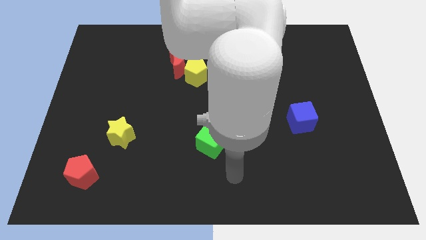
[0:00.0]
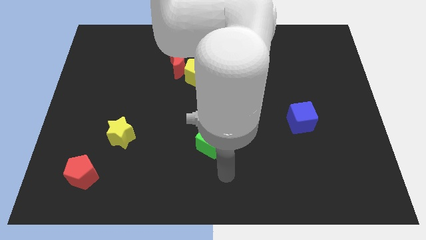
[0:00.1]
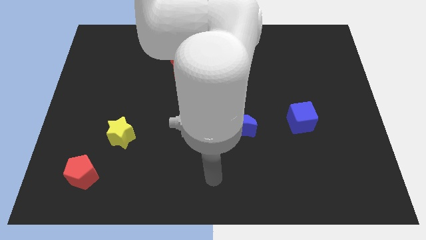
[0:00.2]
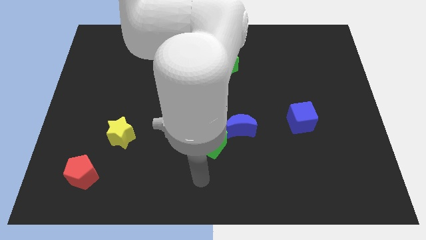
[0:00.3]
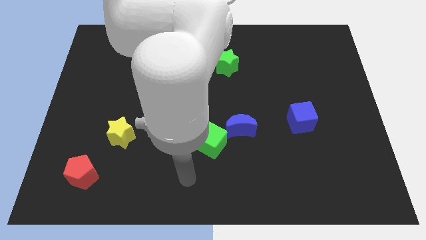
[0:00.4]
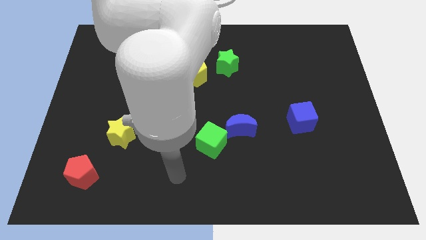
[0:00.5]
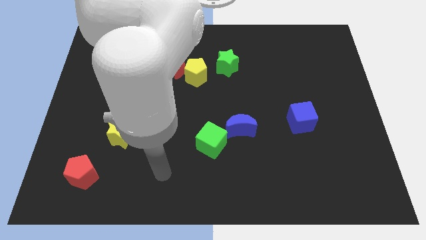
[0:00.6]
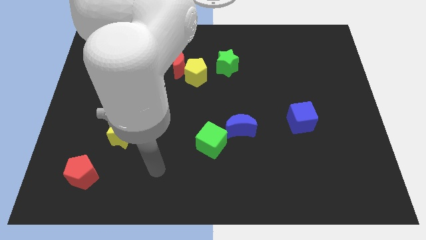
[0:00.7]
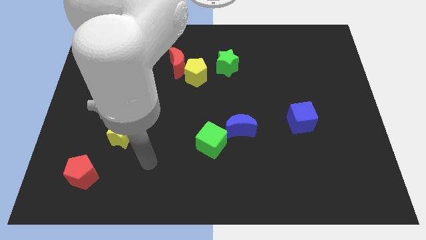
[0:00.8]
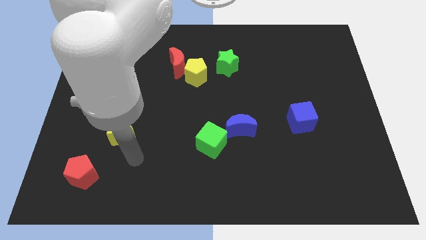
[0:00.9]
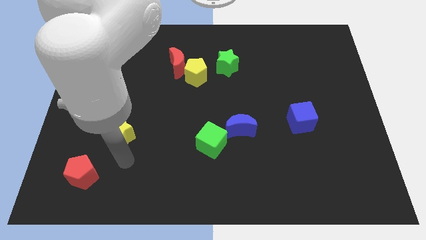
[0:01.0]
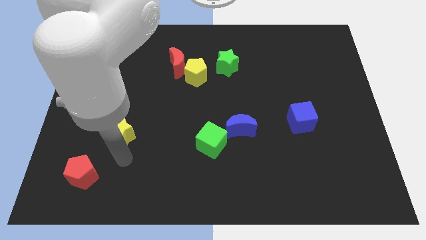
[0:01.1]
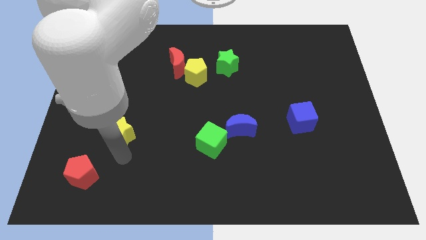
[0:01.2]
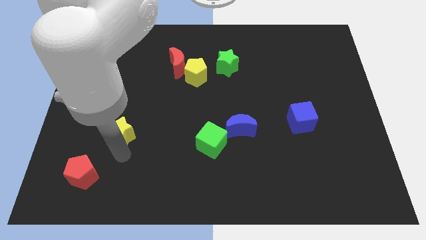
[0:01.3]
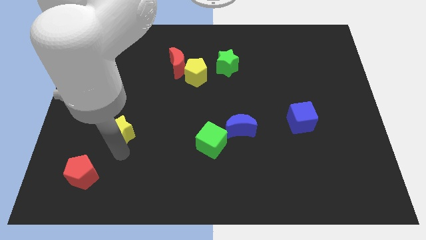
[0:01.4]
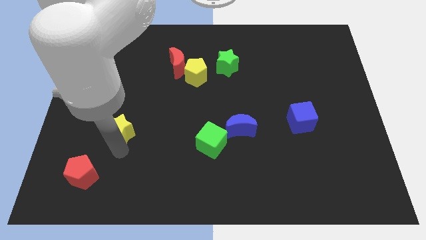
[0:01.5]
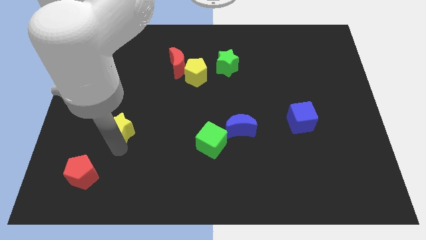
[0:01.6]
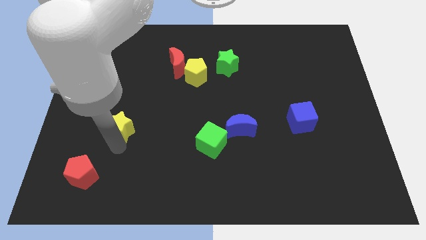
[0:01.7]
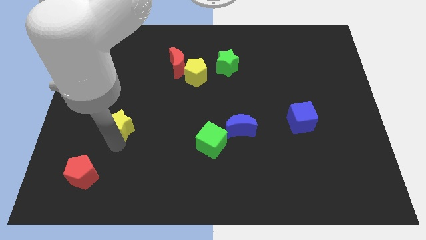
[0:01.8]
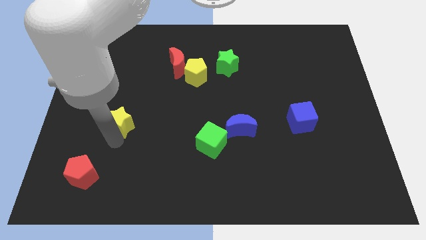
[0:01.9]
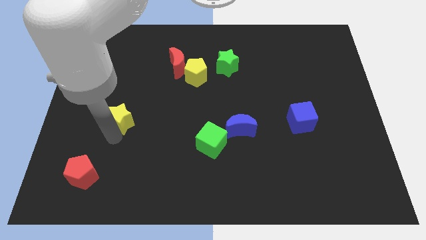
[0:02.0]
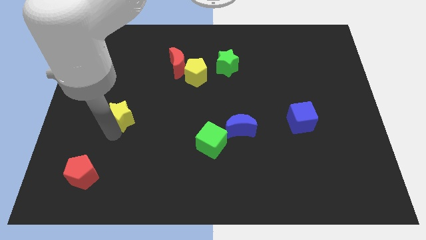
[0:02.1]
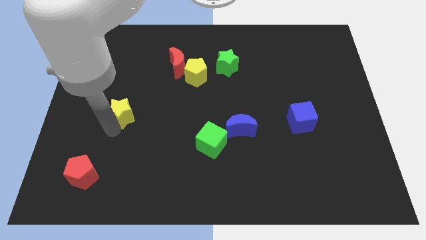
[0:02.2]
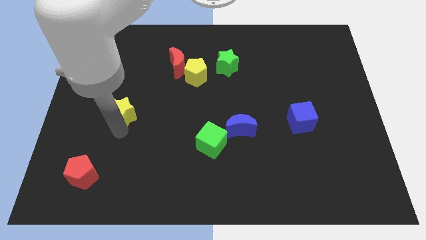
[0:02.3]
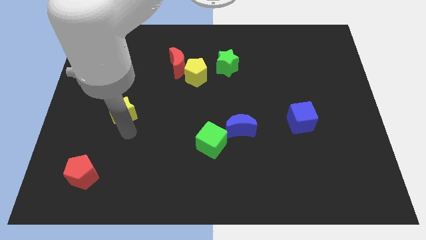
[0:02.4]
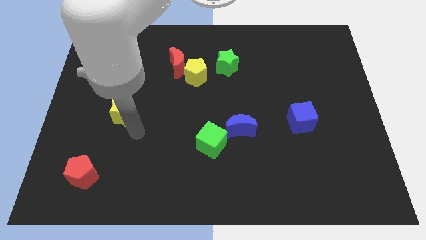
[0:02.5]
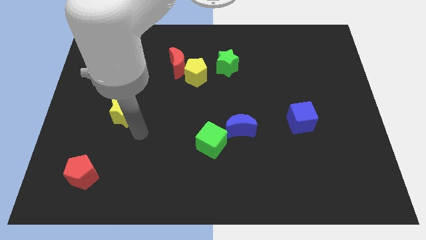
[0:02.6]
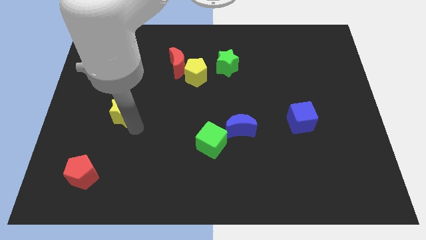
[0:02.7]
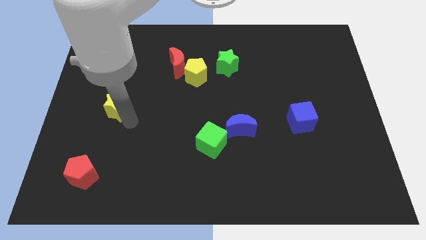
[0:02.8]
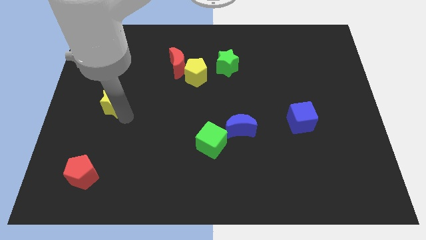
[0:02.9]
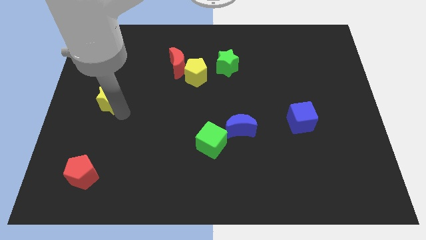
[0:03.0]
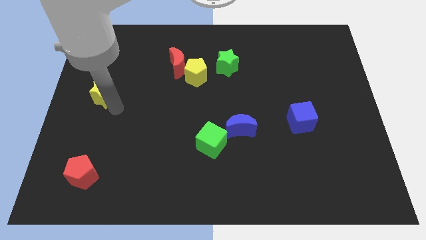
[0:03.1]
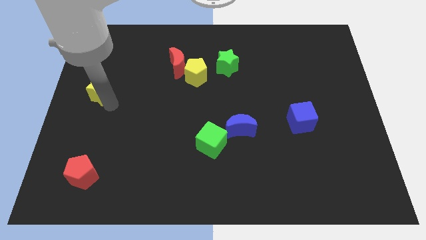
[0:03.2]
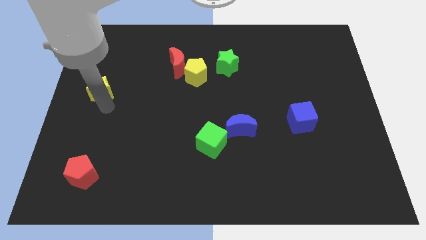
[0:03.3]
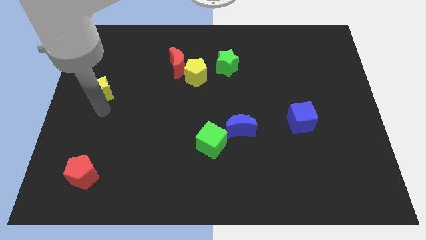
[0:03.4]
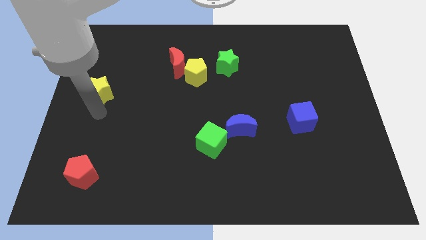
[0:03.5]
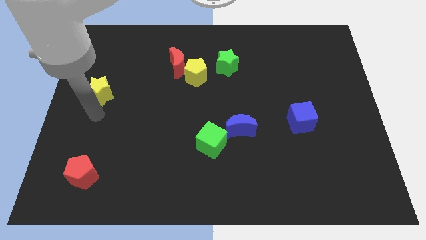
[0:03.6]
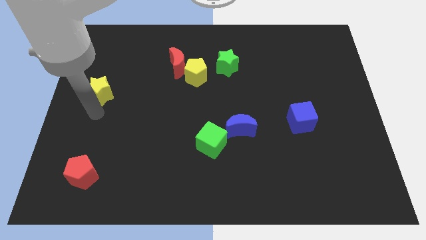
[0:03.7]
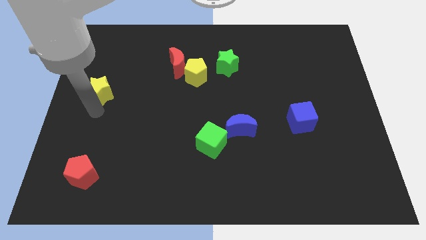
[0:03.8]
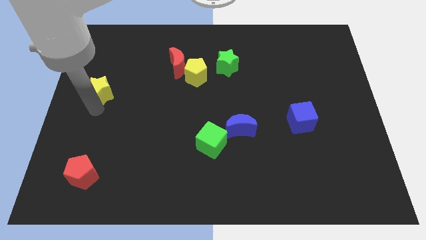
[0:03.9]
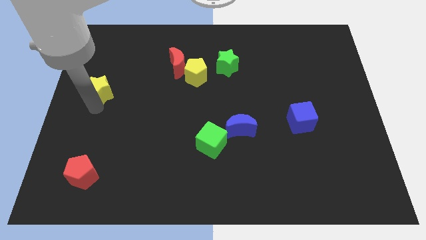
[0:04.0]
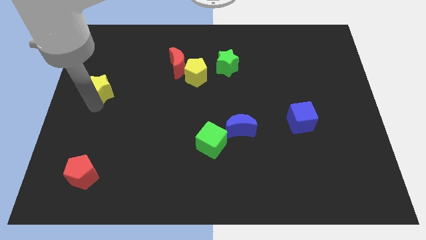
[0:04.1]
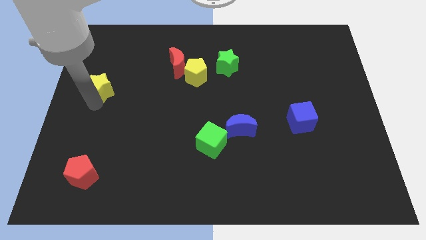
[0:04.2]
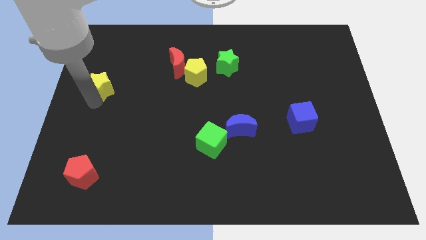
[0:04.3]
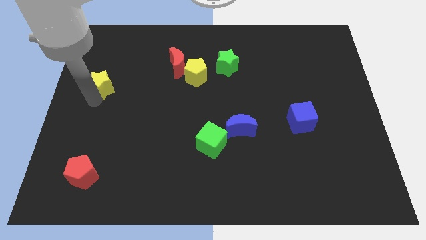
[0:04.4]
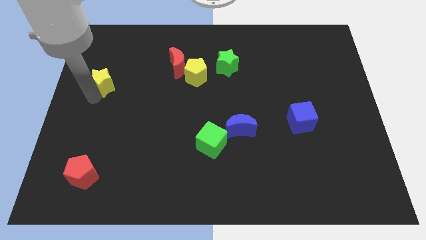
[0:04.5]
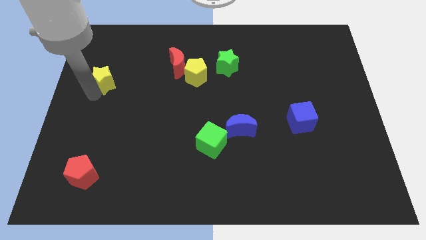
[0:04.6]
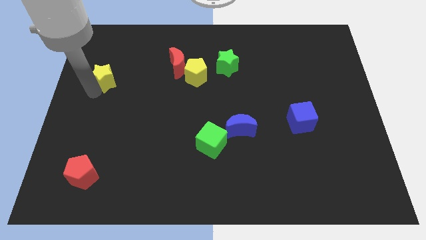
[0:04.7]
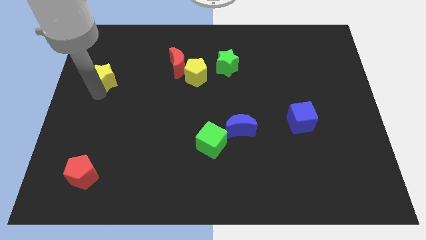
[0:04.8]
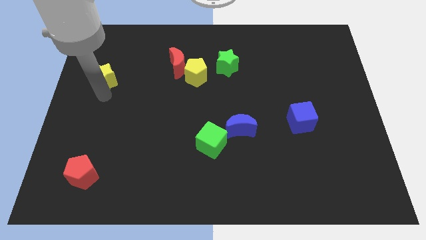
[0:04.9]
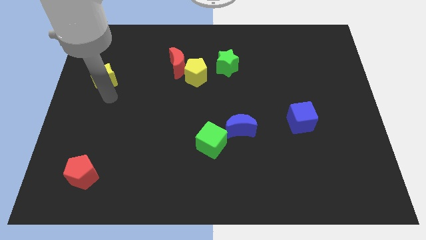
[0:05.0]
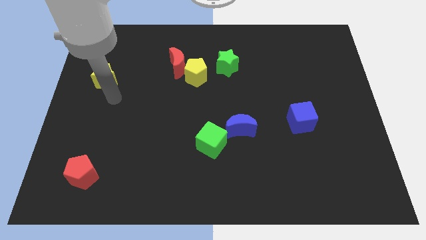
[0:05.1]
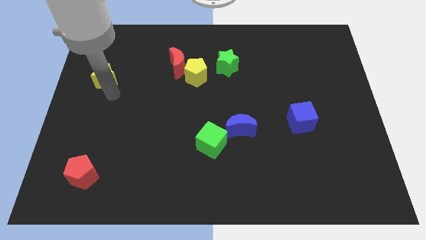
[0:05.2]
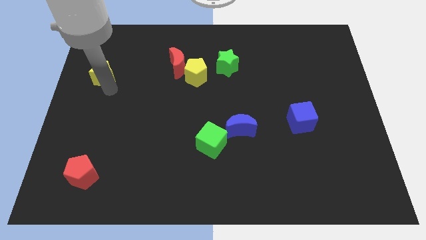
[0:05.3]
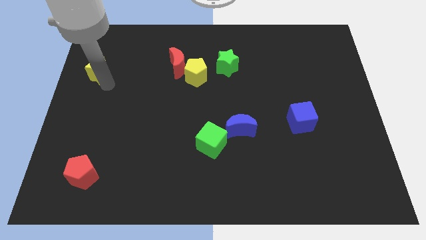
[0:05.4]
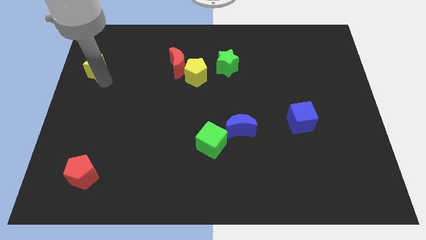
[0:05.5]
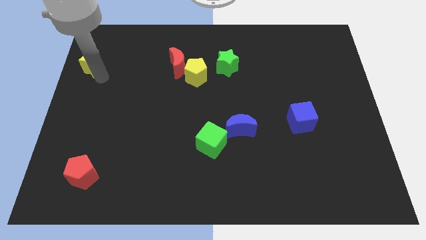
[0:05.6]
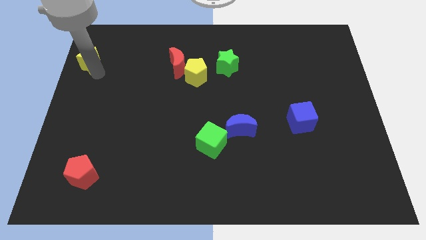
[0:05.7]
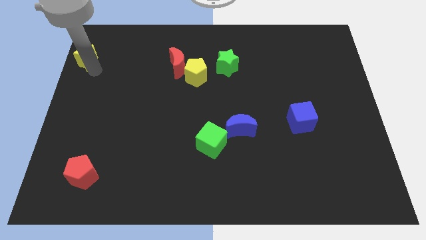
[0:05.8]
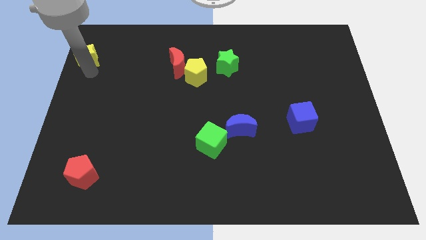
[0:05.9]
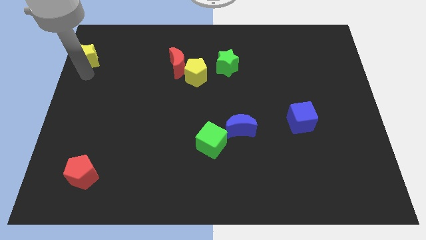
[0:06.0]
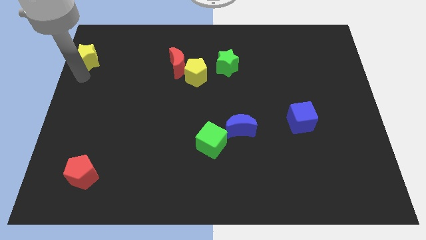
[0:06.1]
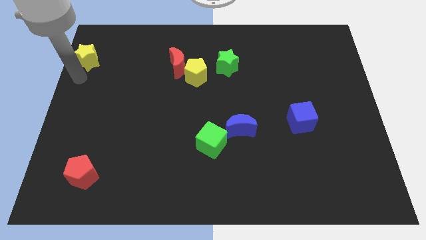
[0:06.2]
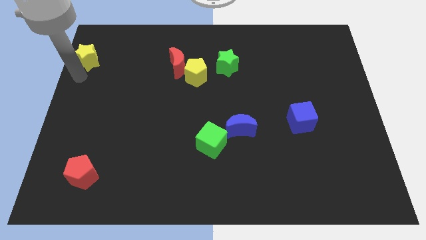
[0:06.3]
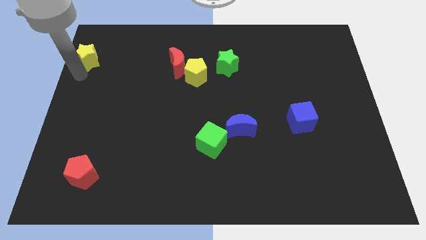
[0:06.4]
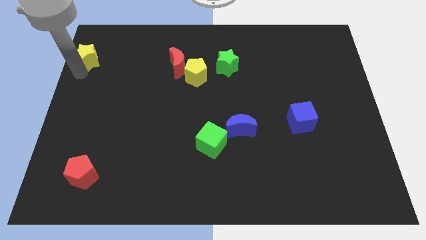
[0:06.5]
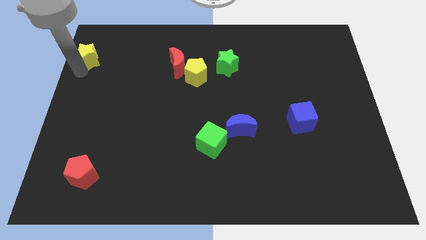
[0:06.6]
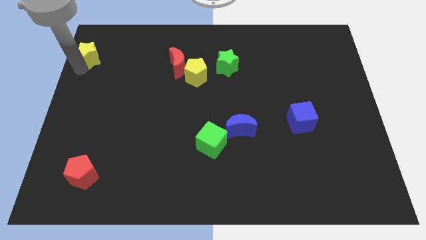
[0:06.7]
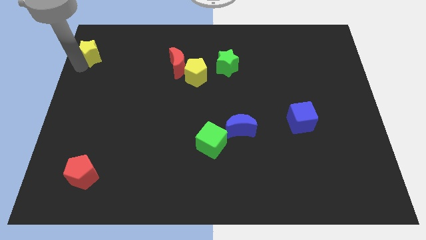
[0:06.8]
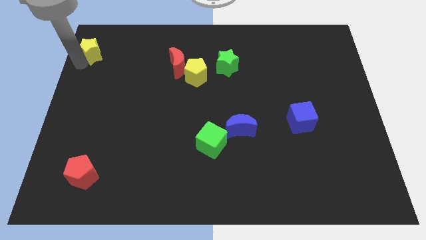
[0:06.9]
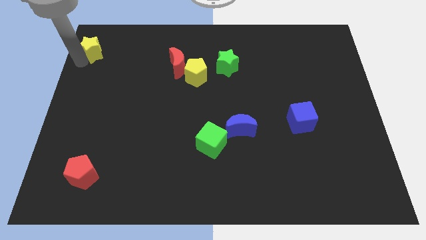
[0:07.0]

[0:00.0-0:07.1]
move the yellow star to the upper left corner

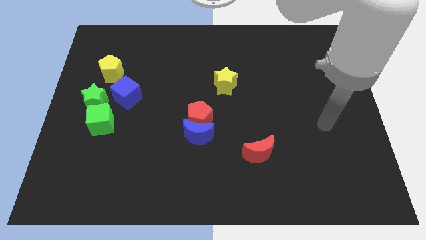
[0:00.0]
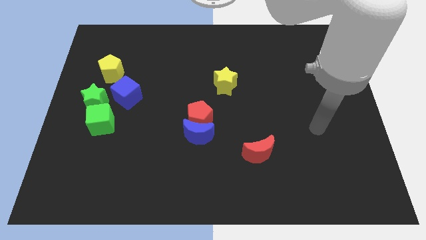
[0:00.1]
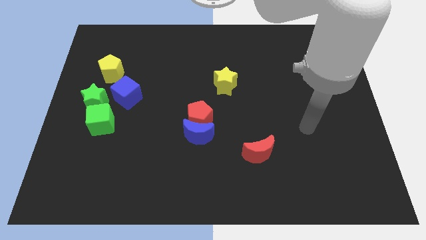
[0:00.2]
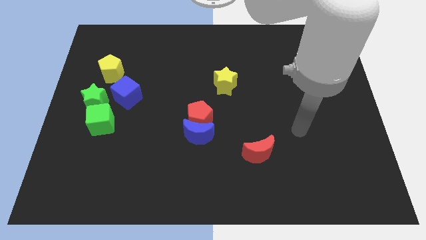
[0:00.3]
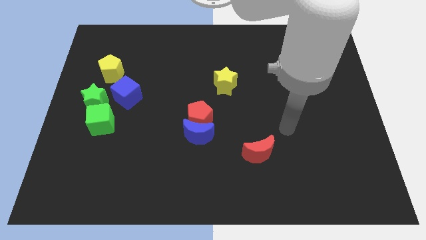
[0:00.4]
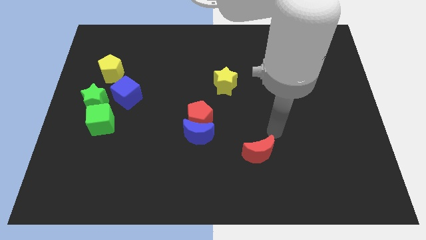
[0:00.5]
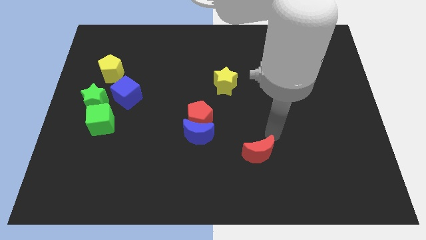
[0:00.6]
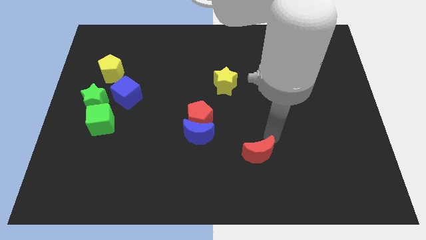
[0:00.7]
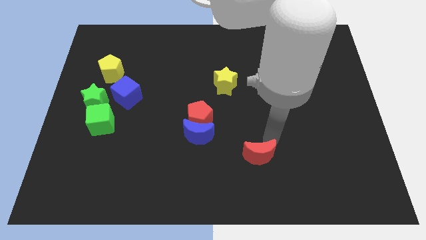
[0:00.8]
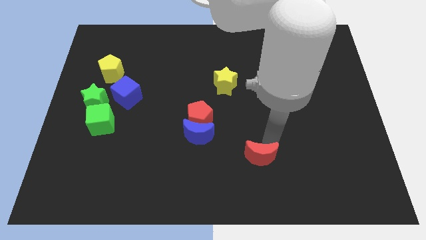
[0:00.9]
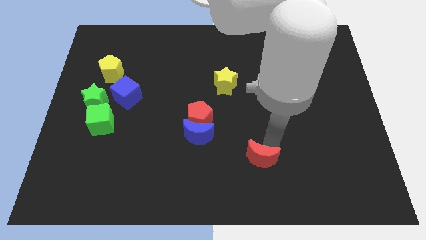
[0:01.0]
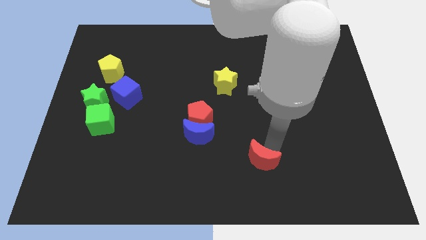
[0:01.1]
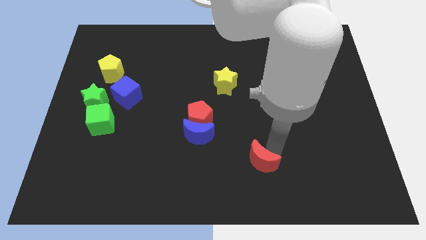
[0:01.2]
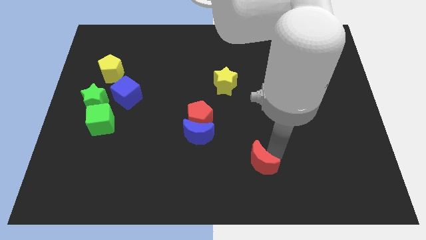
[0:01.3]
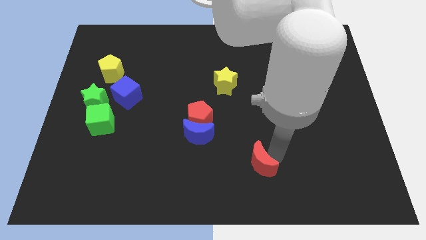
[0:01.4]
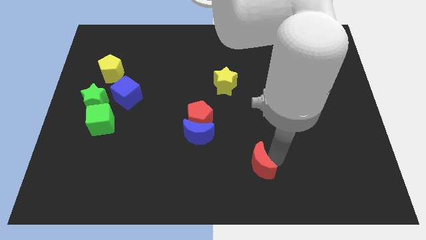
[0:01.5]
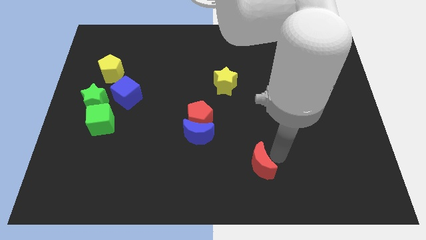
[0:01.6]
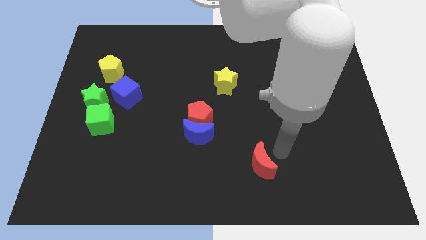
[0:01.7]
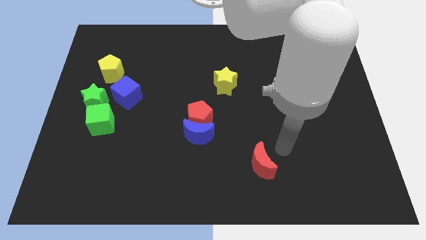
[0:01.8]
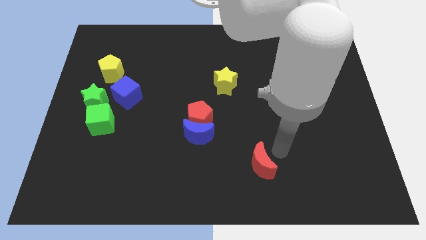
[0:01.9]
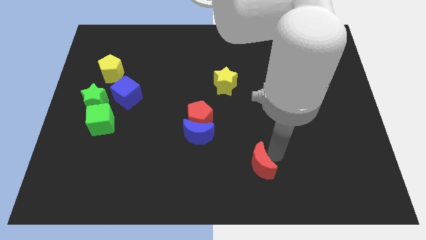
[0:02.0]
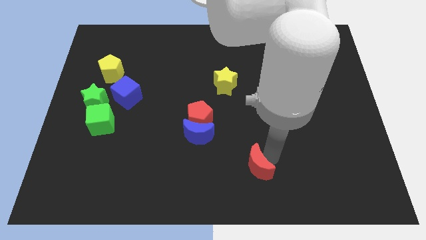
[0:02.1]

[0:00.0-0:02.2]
slide the red moon to the bottom side
